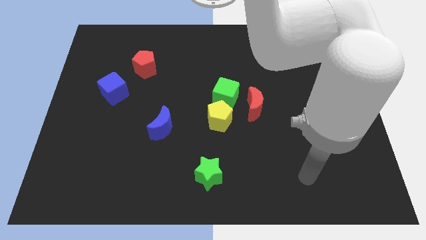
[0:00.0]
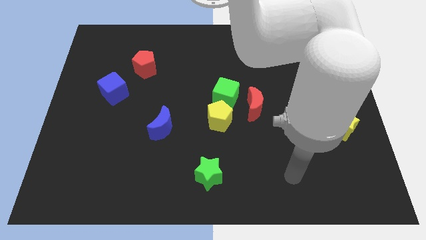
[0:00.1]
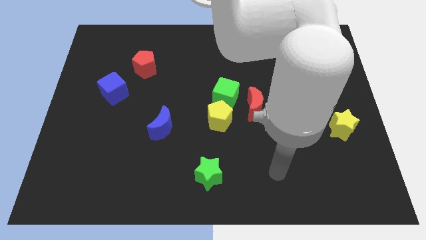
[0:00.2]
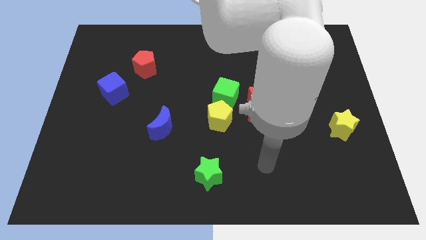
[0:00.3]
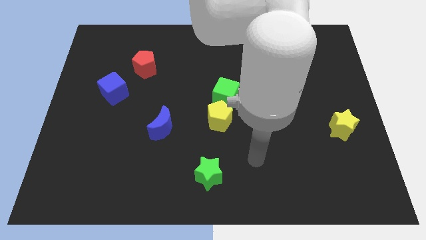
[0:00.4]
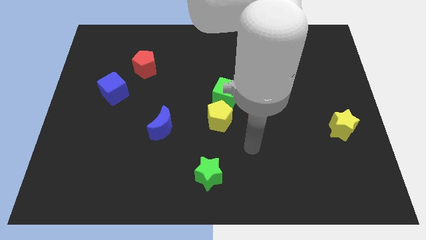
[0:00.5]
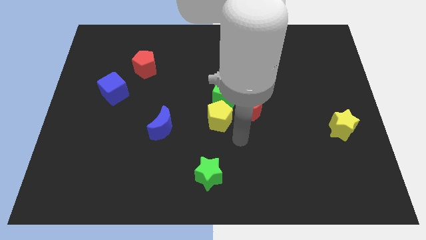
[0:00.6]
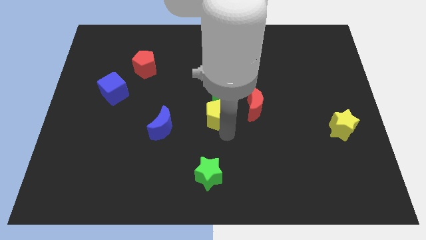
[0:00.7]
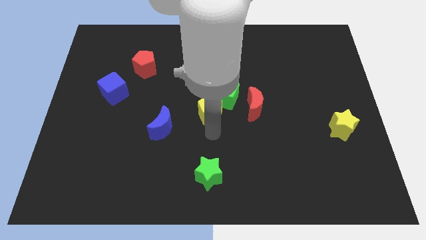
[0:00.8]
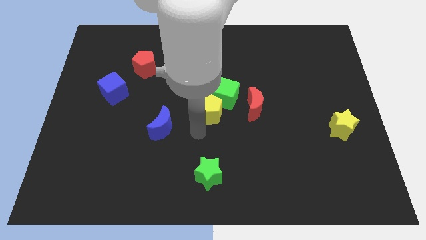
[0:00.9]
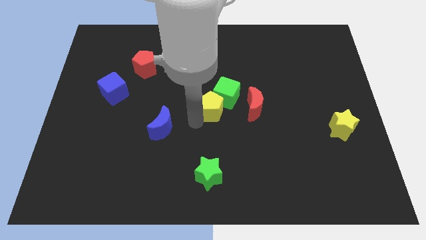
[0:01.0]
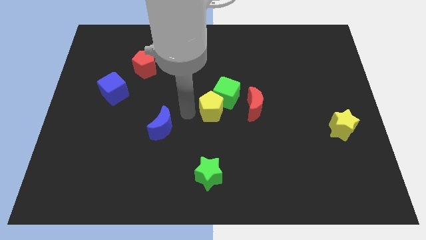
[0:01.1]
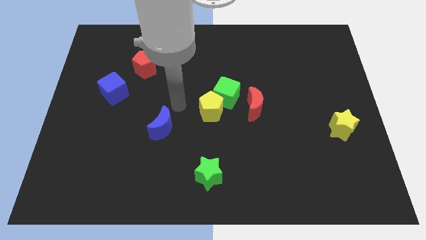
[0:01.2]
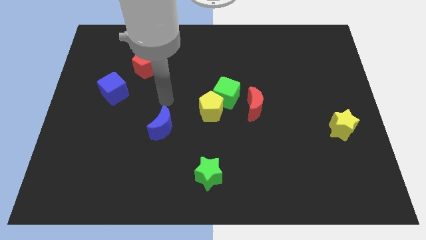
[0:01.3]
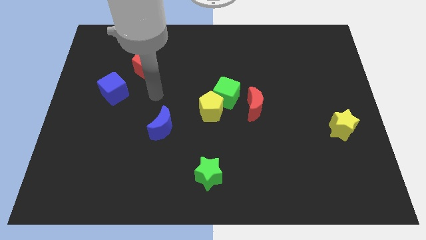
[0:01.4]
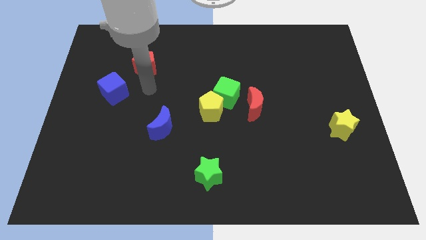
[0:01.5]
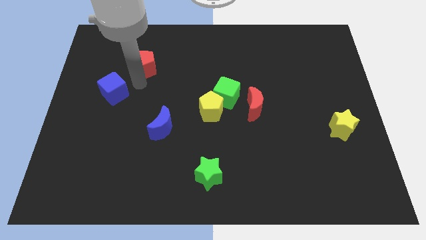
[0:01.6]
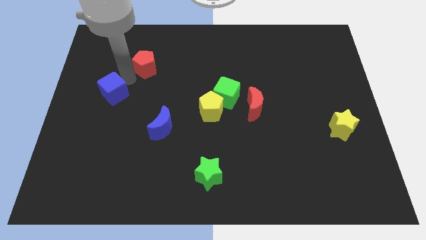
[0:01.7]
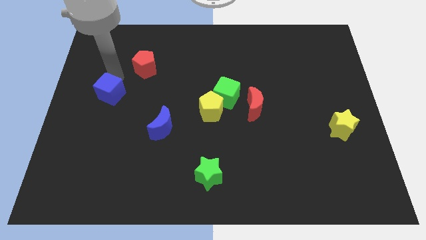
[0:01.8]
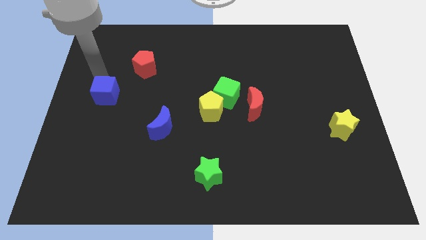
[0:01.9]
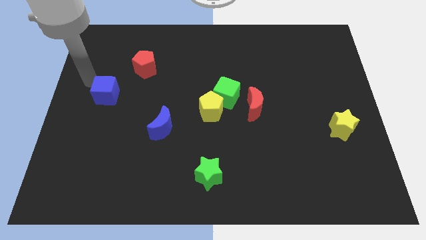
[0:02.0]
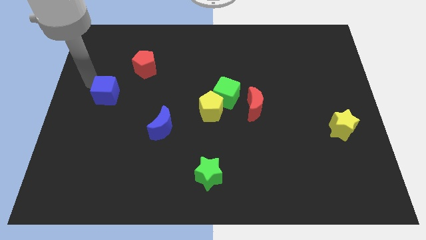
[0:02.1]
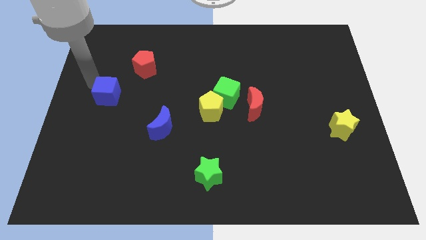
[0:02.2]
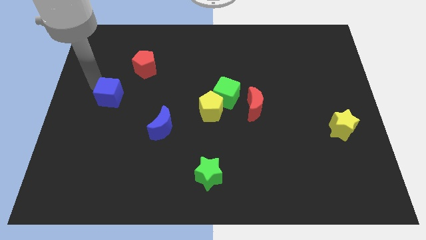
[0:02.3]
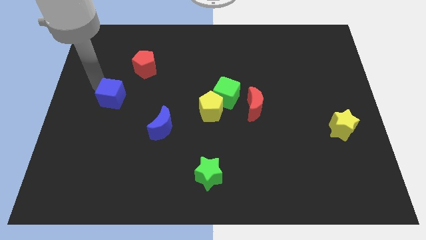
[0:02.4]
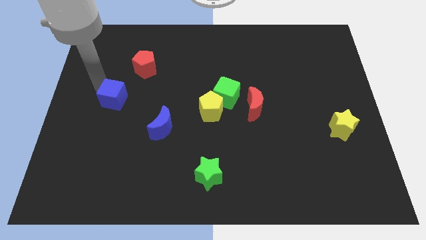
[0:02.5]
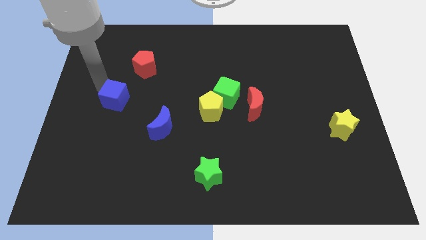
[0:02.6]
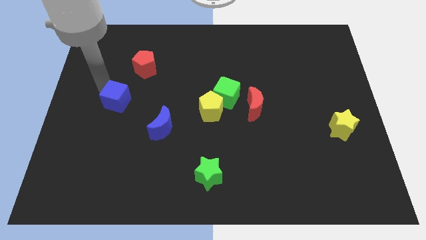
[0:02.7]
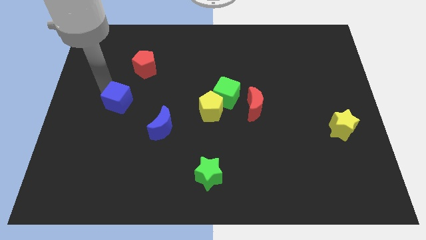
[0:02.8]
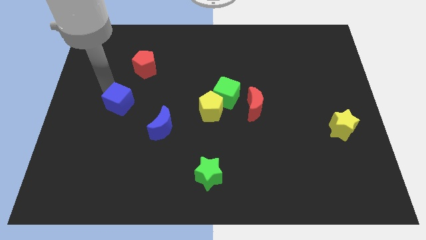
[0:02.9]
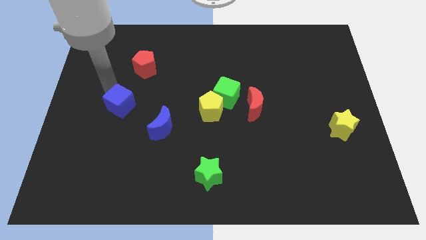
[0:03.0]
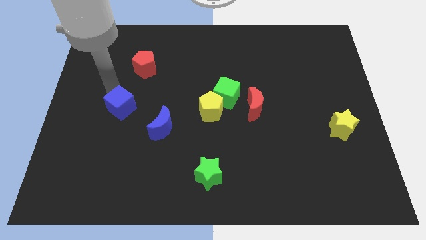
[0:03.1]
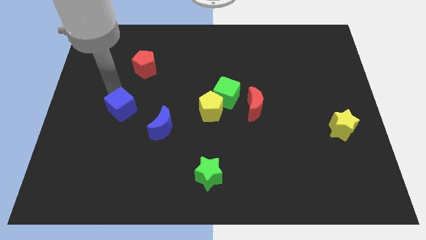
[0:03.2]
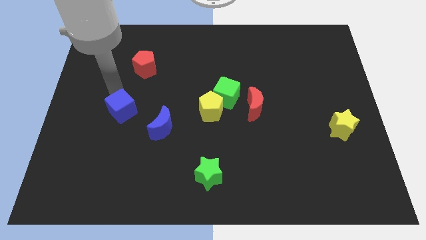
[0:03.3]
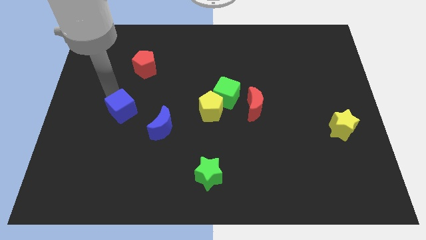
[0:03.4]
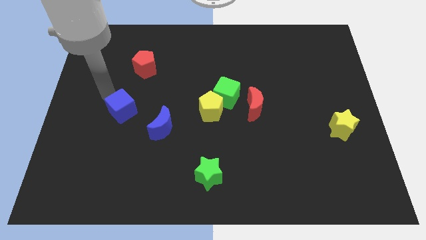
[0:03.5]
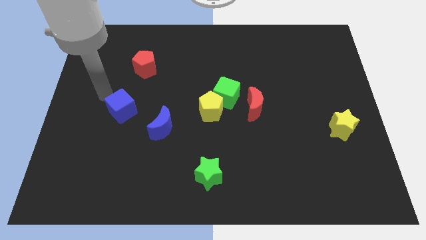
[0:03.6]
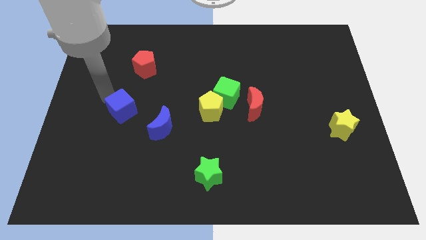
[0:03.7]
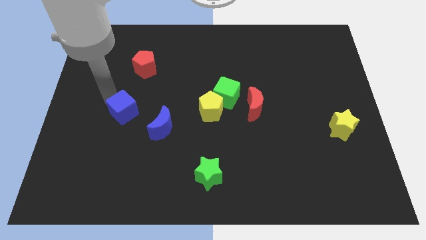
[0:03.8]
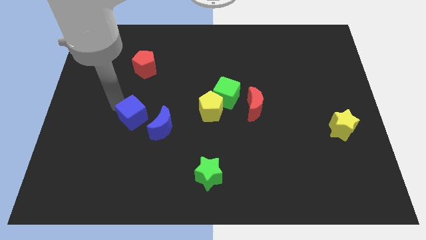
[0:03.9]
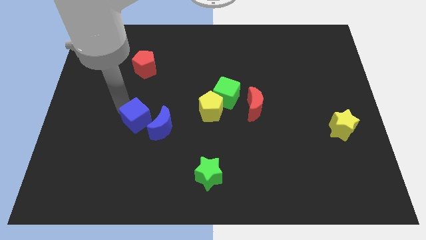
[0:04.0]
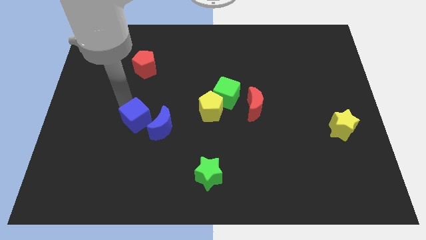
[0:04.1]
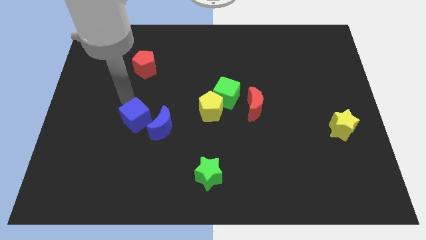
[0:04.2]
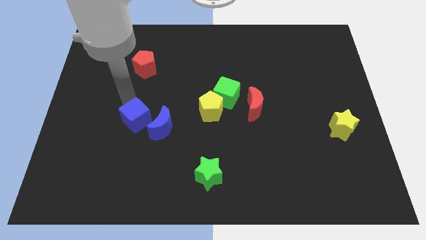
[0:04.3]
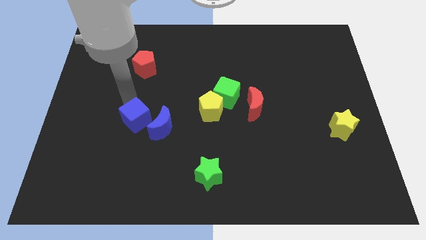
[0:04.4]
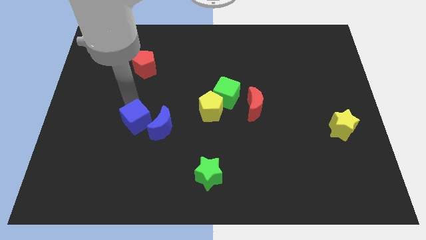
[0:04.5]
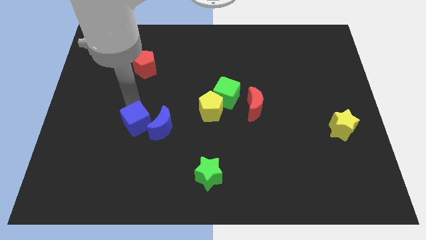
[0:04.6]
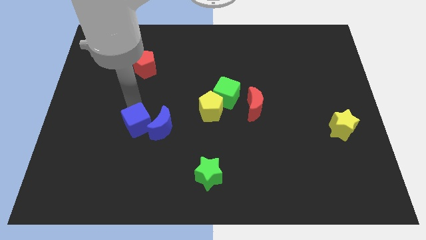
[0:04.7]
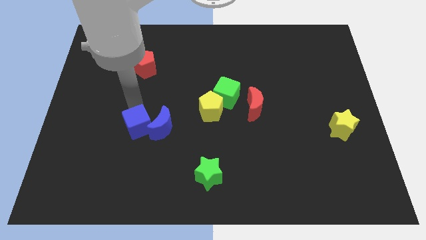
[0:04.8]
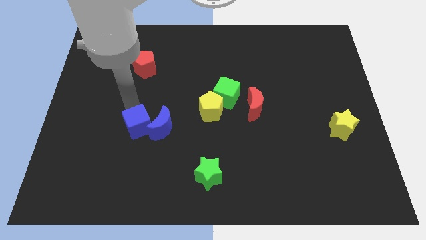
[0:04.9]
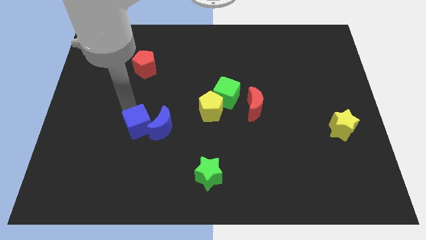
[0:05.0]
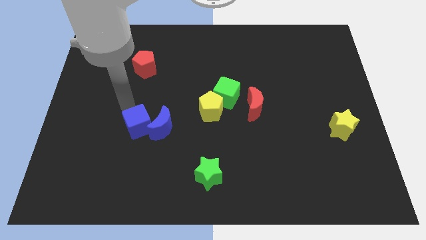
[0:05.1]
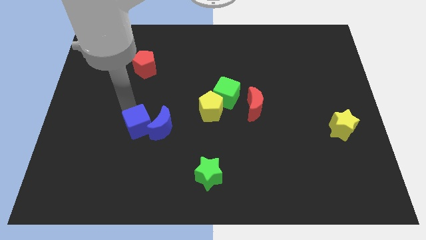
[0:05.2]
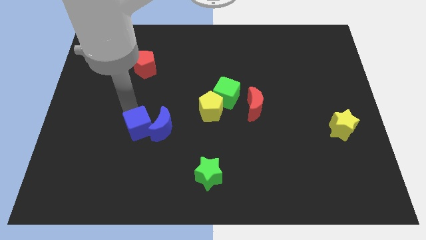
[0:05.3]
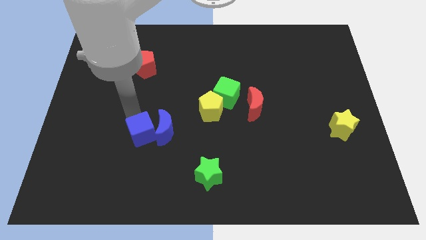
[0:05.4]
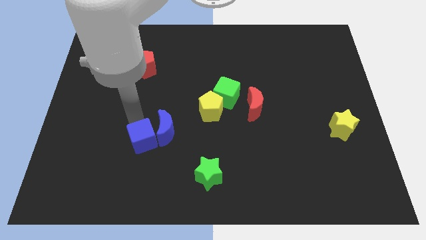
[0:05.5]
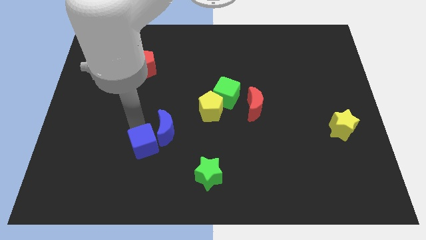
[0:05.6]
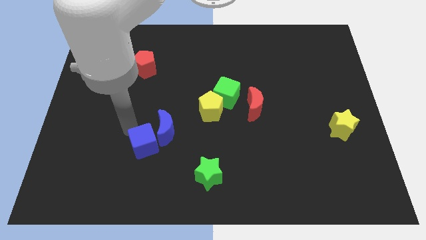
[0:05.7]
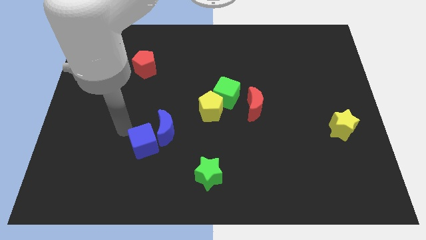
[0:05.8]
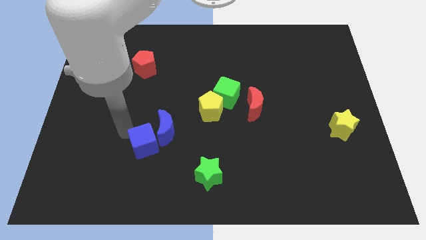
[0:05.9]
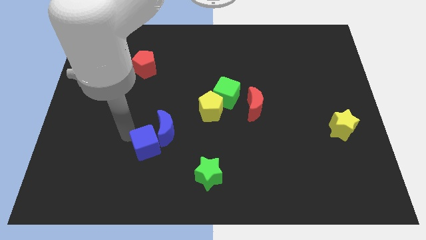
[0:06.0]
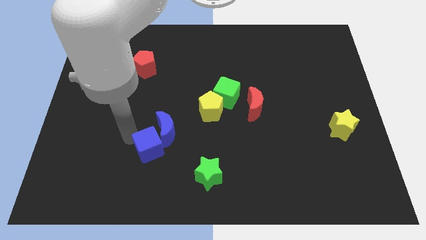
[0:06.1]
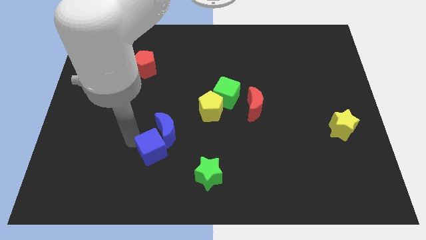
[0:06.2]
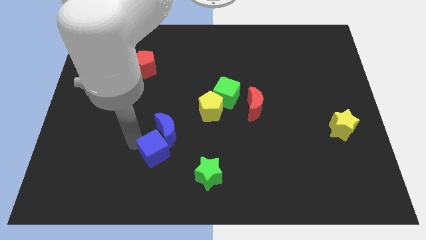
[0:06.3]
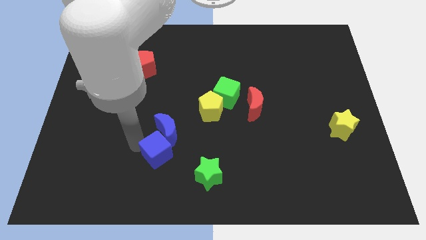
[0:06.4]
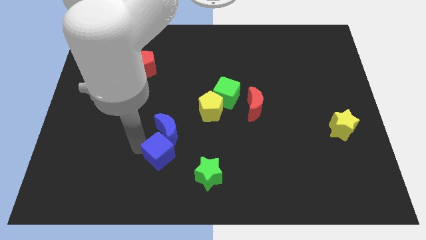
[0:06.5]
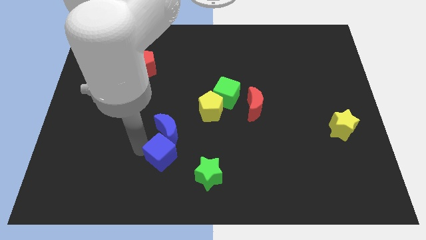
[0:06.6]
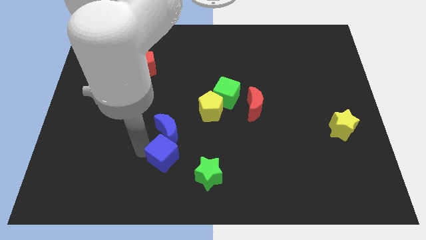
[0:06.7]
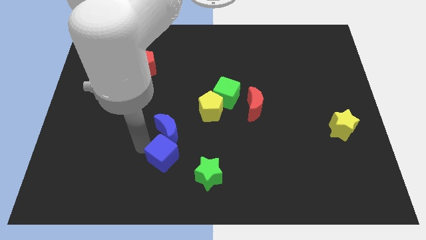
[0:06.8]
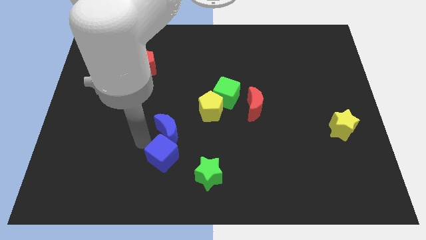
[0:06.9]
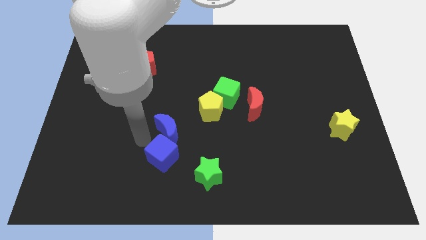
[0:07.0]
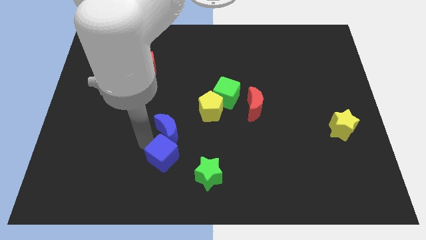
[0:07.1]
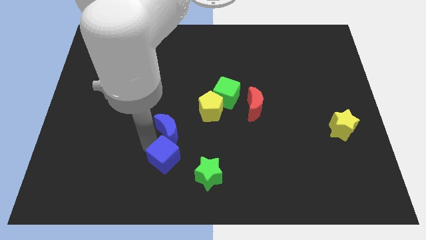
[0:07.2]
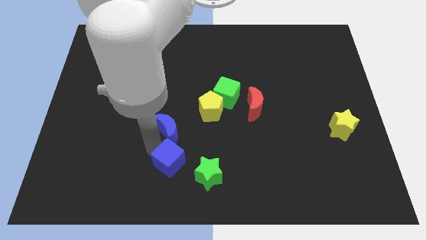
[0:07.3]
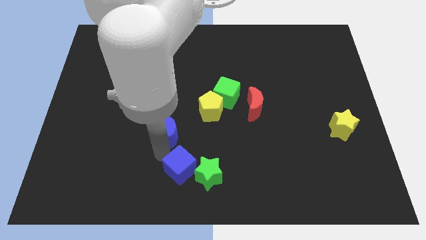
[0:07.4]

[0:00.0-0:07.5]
move the blue cube to the bottom
